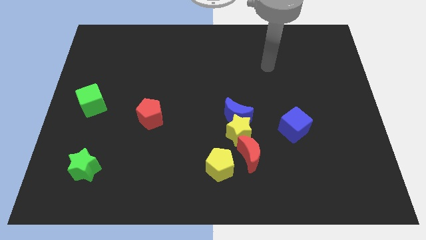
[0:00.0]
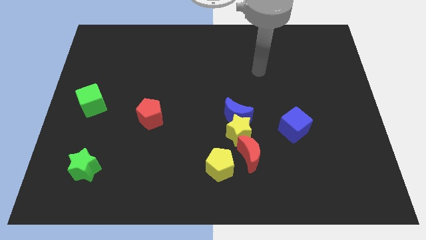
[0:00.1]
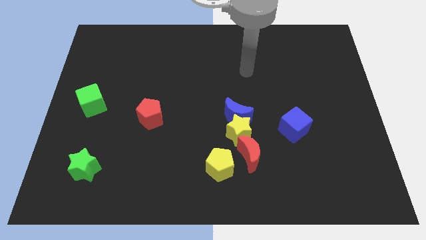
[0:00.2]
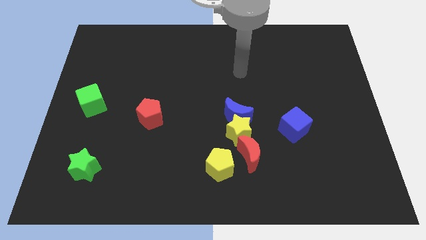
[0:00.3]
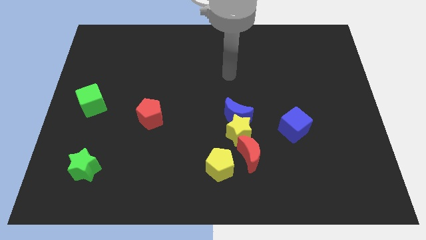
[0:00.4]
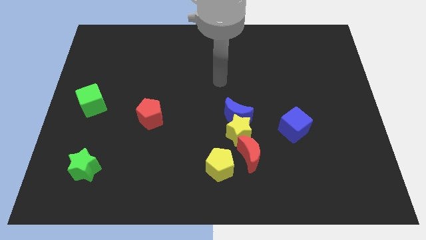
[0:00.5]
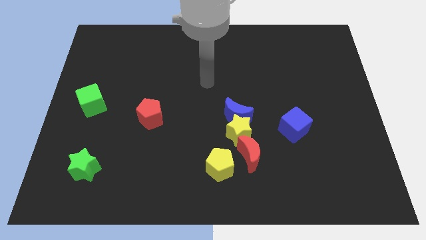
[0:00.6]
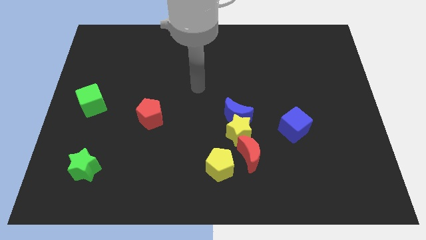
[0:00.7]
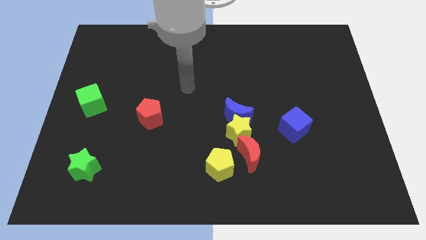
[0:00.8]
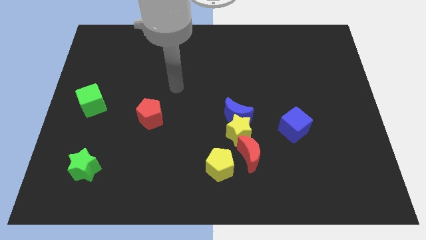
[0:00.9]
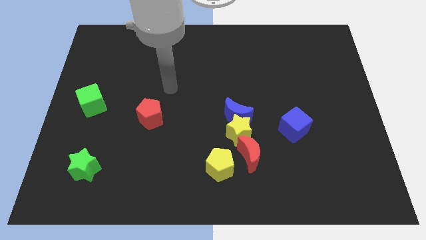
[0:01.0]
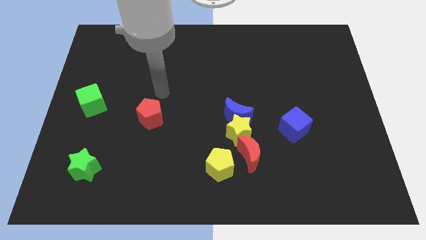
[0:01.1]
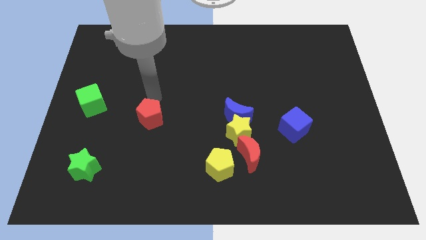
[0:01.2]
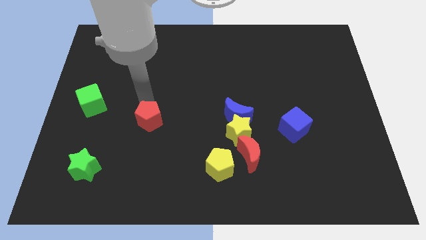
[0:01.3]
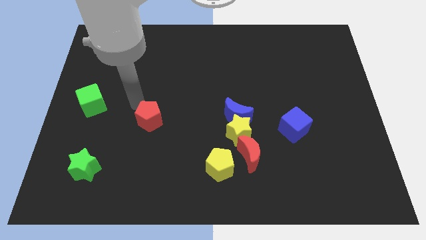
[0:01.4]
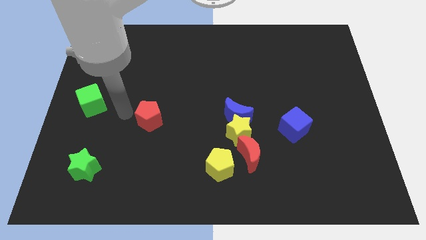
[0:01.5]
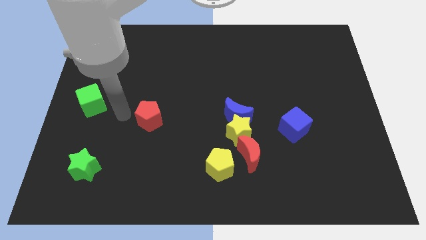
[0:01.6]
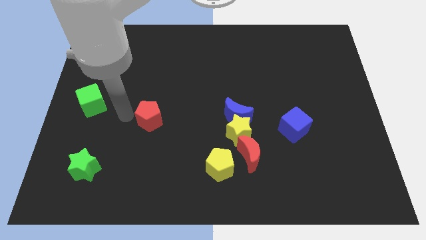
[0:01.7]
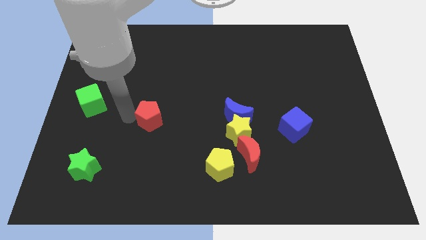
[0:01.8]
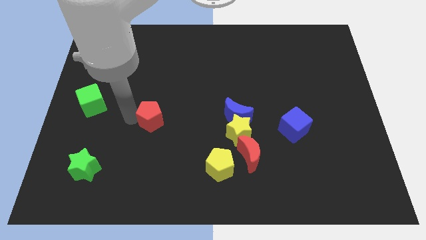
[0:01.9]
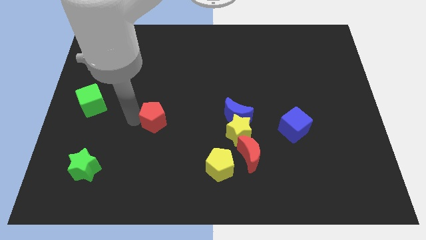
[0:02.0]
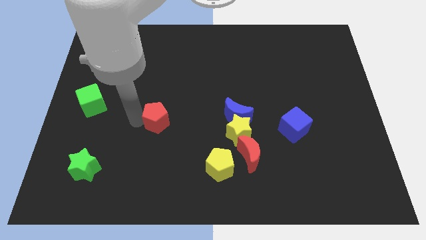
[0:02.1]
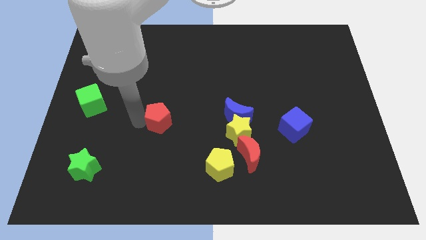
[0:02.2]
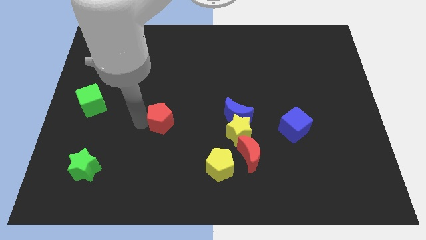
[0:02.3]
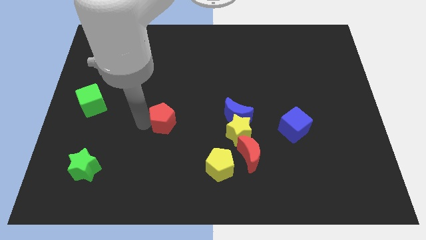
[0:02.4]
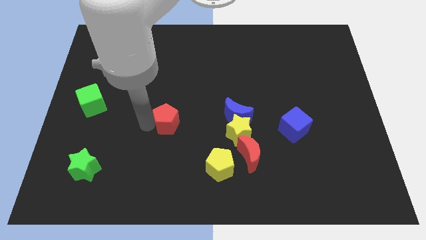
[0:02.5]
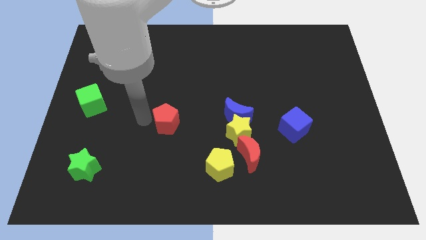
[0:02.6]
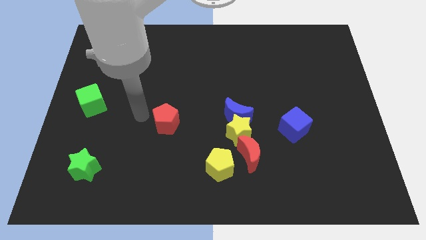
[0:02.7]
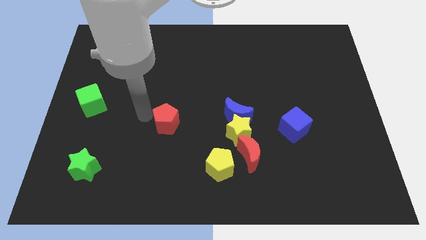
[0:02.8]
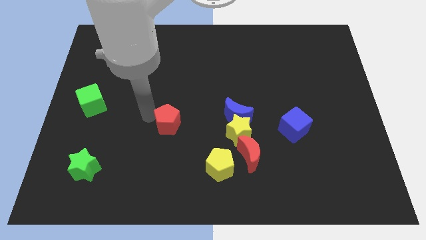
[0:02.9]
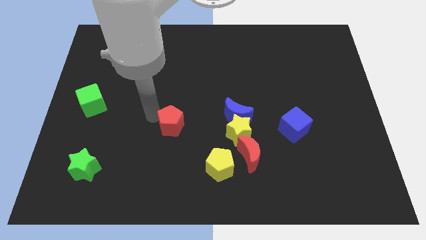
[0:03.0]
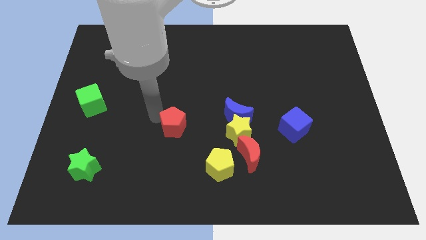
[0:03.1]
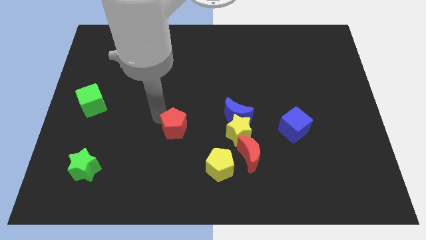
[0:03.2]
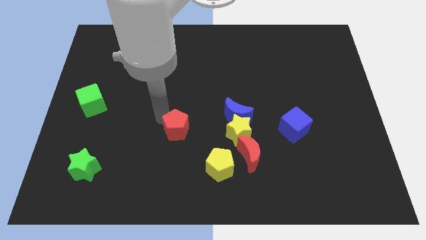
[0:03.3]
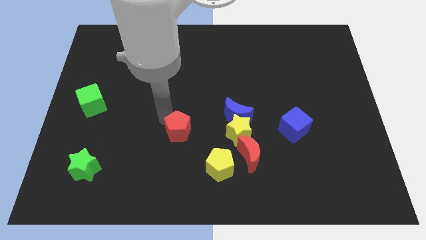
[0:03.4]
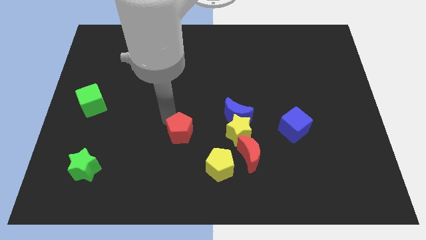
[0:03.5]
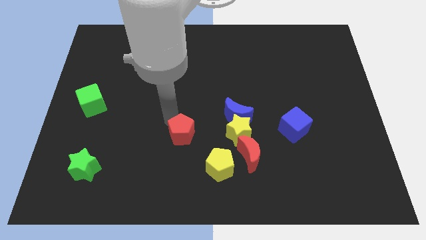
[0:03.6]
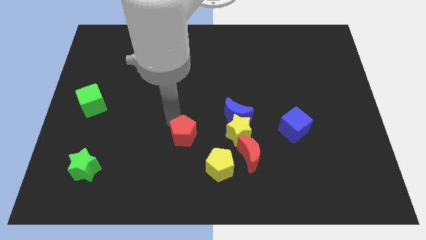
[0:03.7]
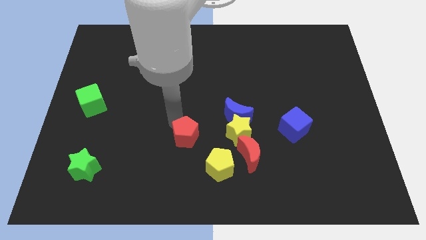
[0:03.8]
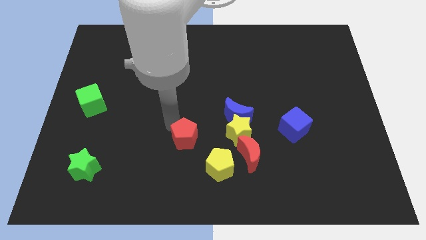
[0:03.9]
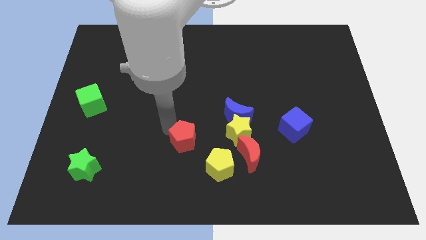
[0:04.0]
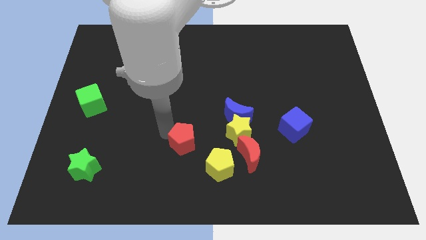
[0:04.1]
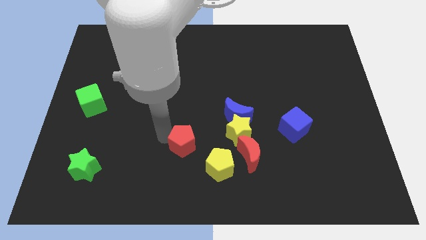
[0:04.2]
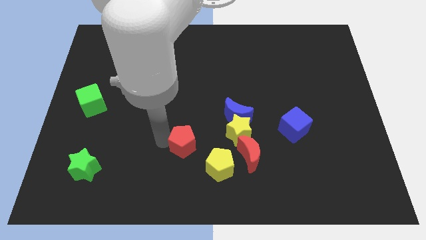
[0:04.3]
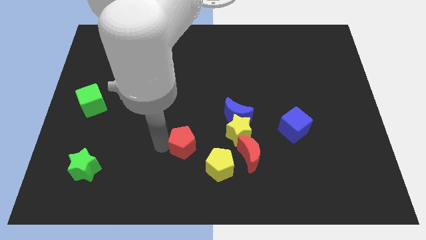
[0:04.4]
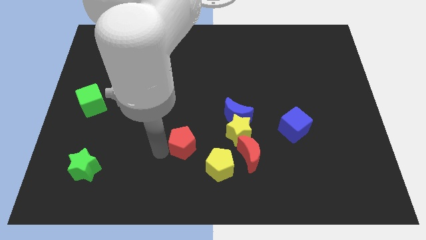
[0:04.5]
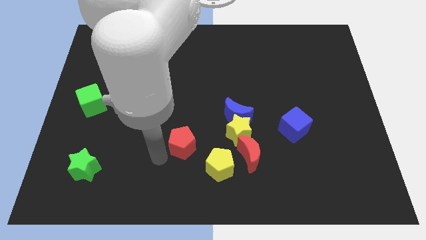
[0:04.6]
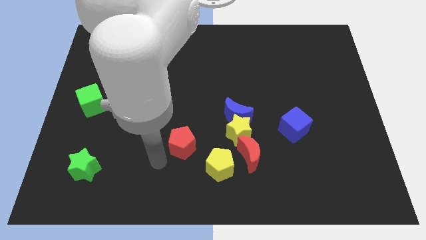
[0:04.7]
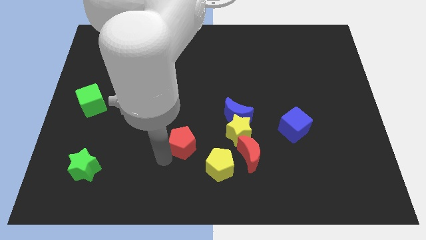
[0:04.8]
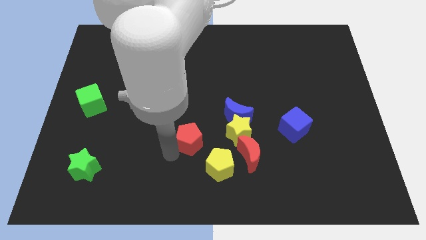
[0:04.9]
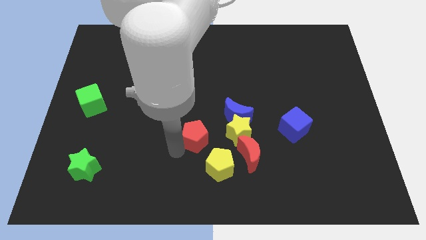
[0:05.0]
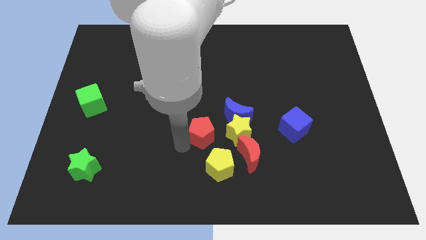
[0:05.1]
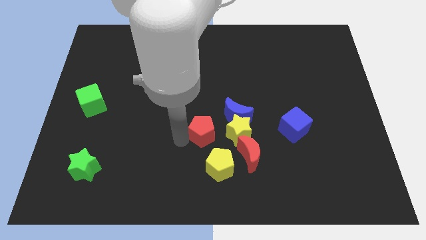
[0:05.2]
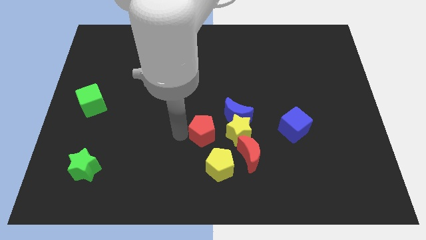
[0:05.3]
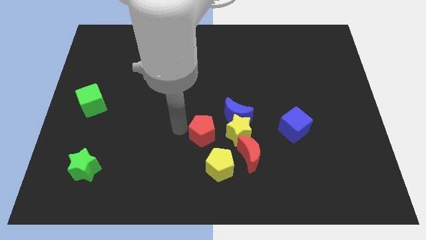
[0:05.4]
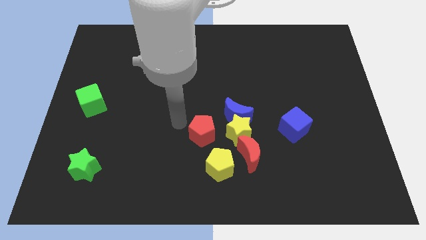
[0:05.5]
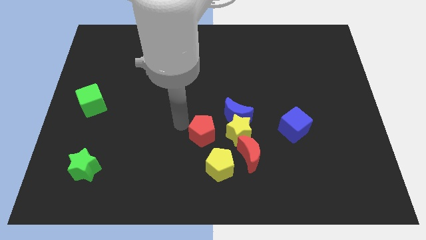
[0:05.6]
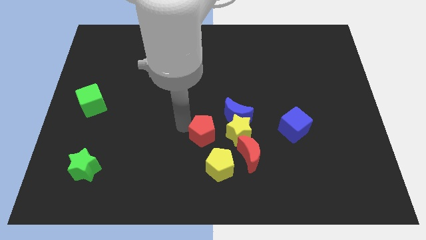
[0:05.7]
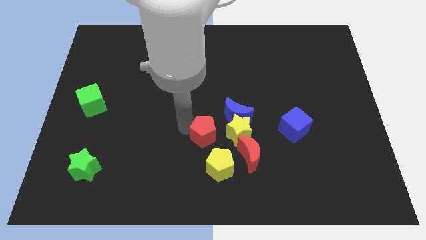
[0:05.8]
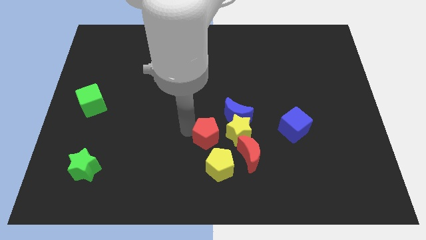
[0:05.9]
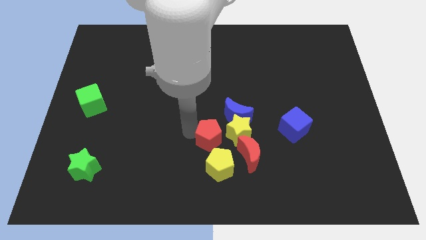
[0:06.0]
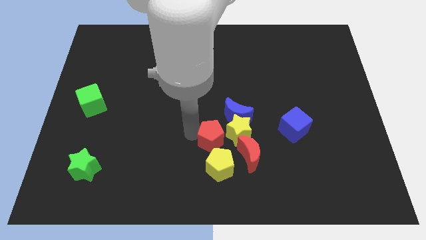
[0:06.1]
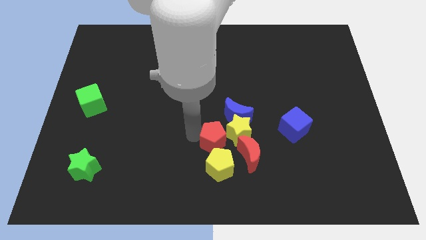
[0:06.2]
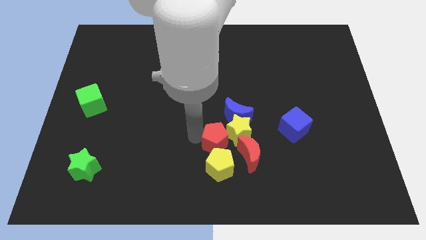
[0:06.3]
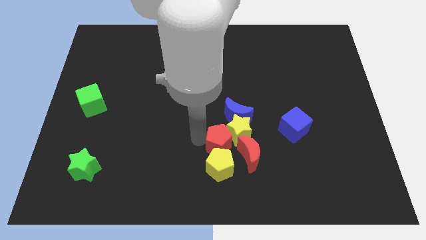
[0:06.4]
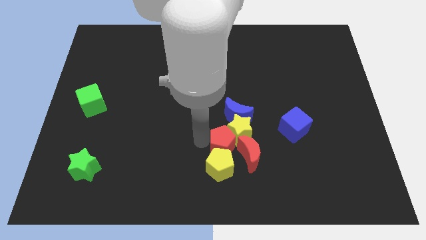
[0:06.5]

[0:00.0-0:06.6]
move the red pentagon towards the red moon
